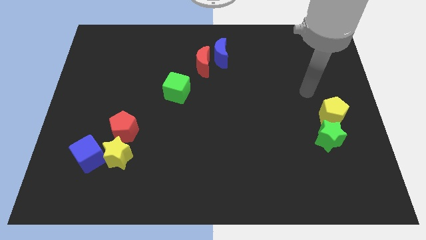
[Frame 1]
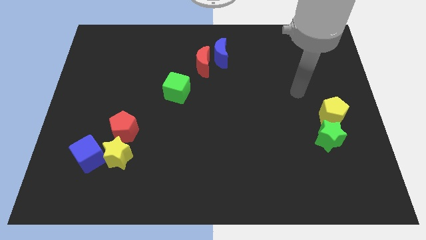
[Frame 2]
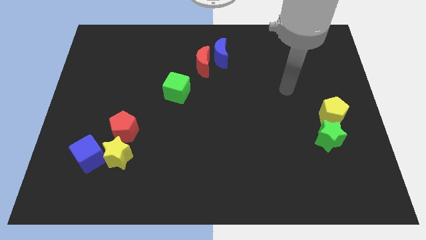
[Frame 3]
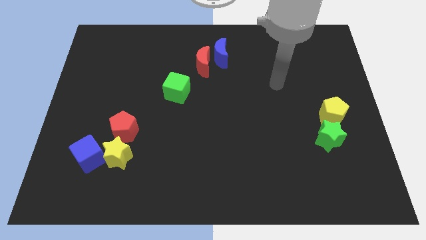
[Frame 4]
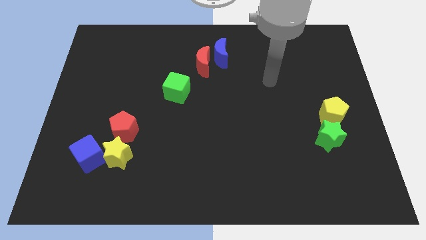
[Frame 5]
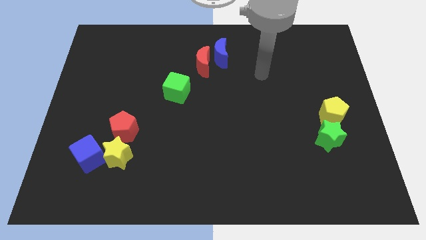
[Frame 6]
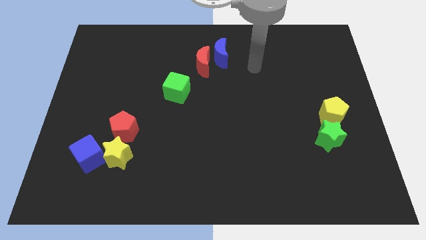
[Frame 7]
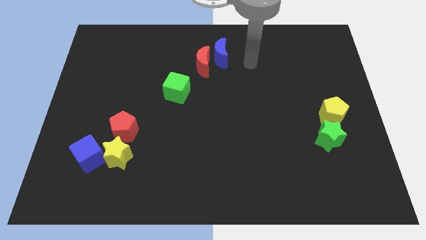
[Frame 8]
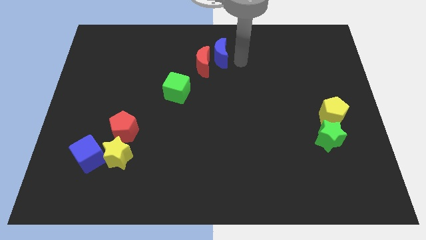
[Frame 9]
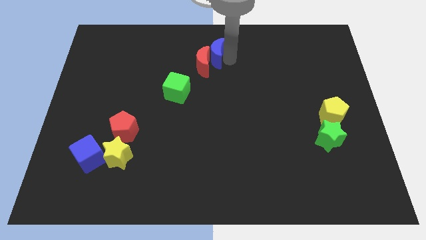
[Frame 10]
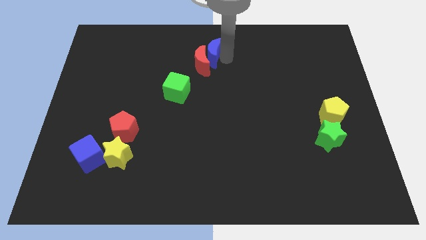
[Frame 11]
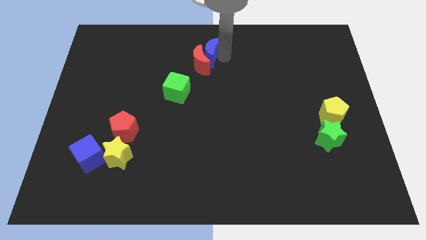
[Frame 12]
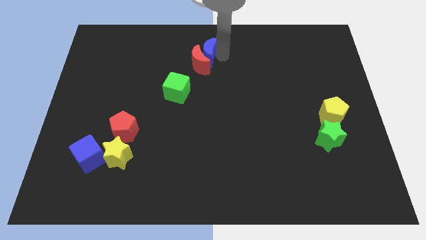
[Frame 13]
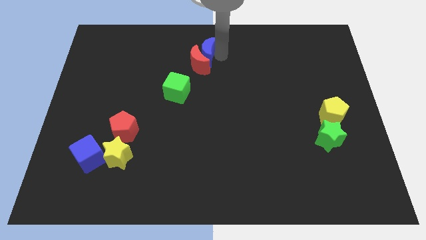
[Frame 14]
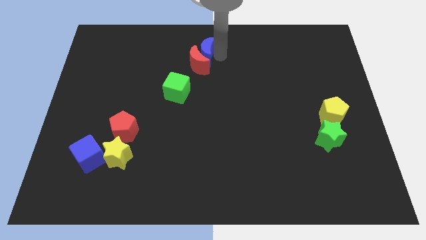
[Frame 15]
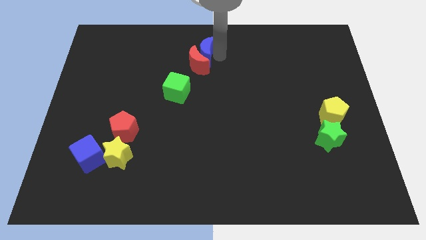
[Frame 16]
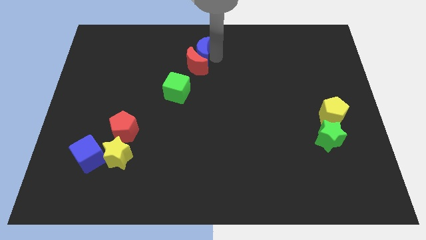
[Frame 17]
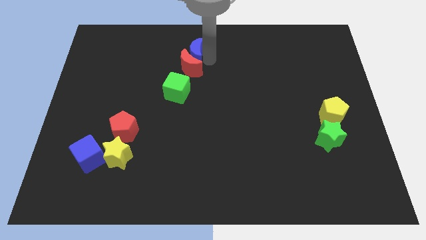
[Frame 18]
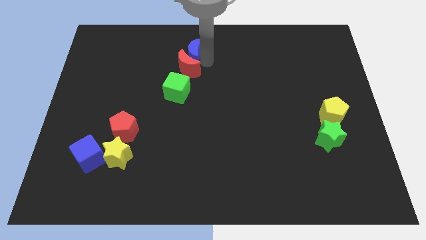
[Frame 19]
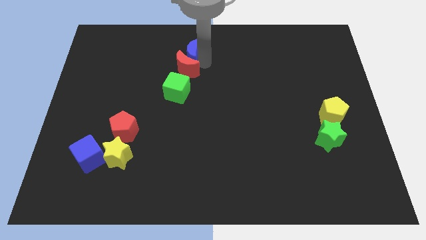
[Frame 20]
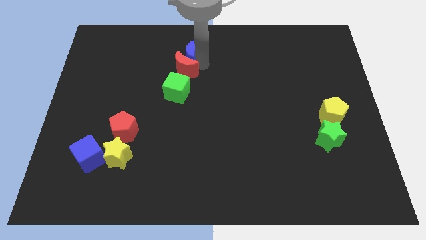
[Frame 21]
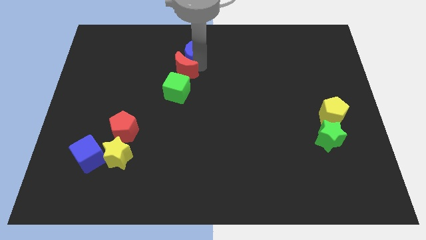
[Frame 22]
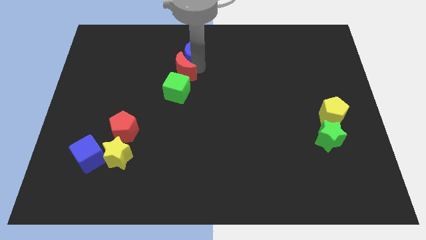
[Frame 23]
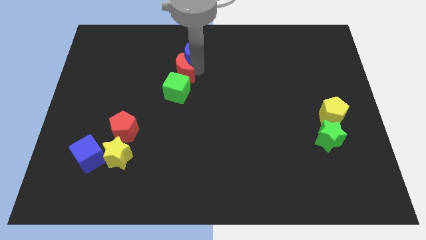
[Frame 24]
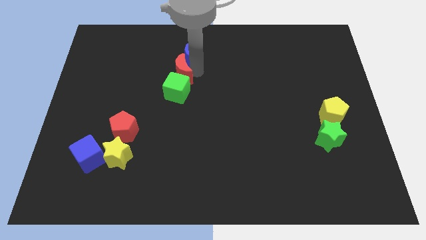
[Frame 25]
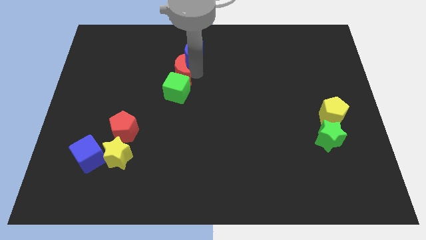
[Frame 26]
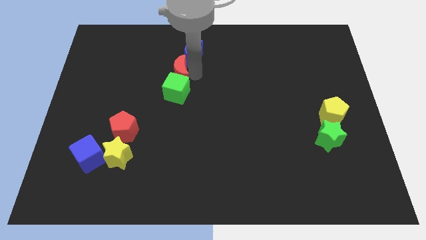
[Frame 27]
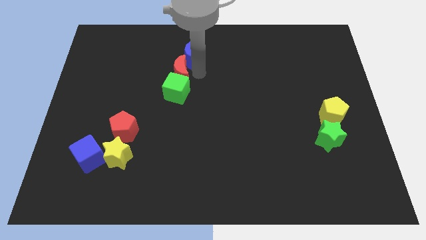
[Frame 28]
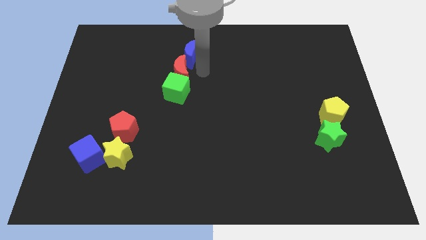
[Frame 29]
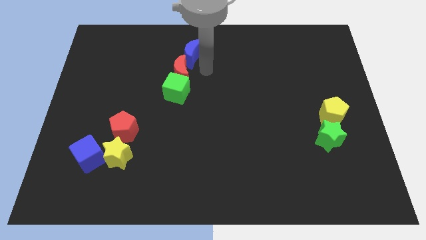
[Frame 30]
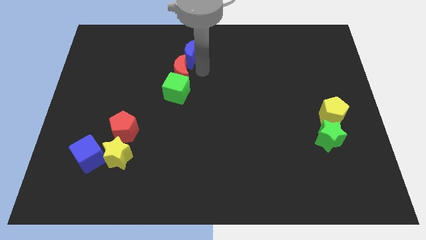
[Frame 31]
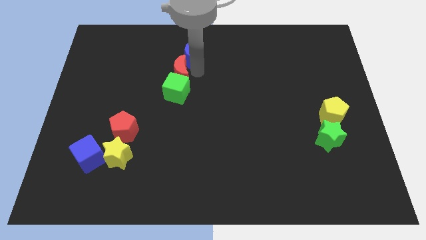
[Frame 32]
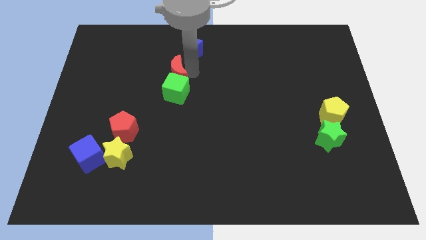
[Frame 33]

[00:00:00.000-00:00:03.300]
slightly slide the red moon downwards and left

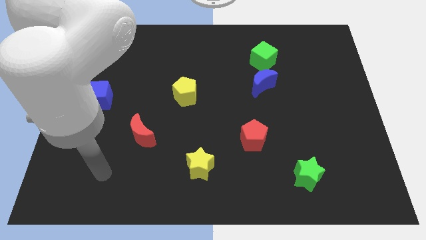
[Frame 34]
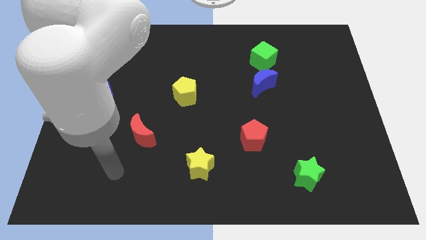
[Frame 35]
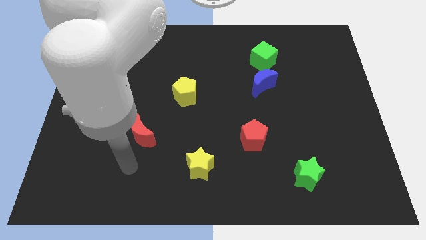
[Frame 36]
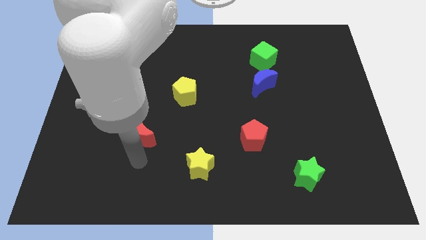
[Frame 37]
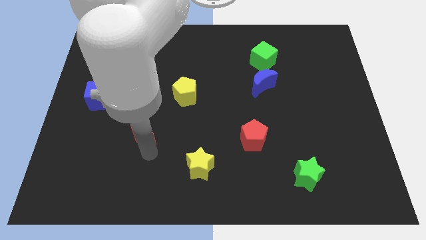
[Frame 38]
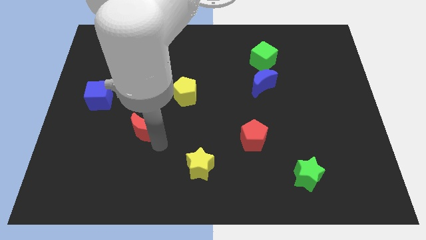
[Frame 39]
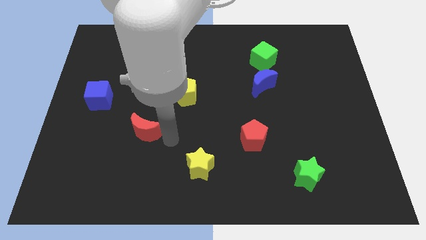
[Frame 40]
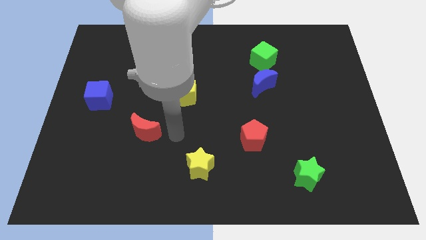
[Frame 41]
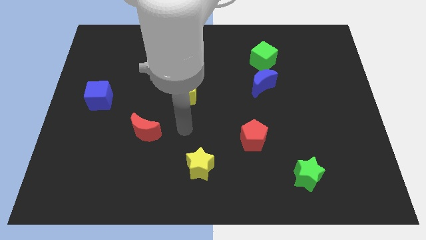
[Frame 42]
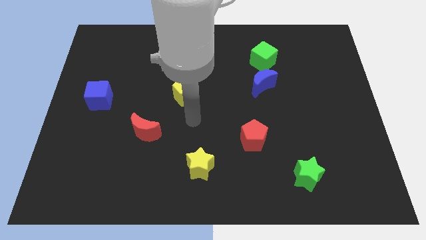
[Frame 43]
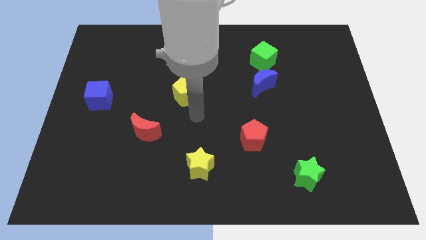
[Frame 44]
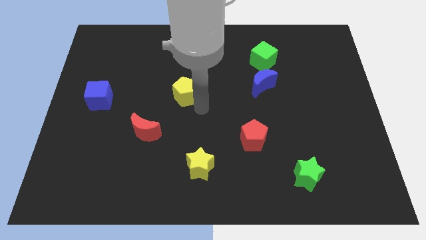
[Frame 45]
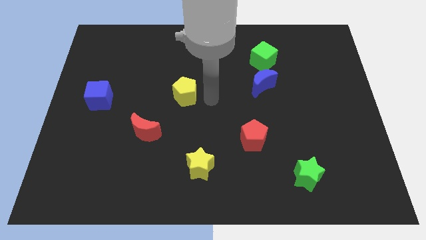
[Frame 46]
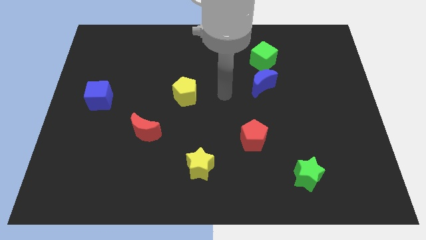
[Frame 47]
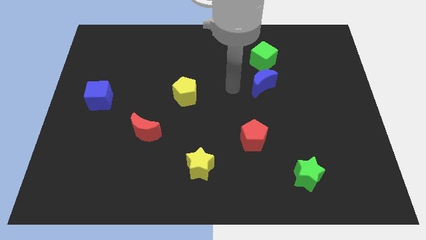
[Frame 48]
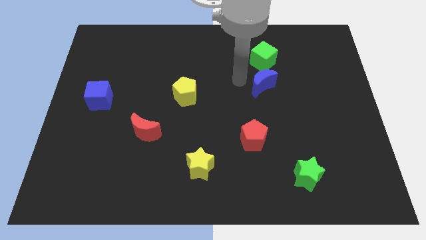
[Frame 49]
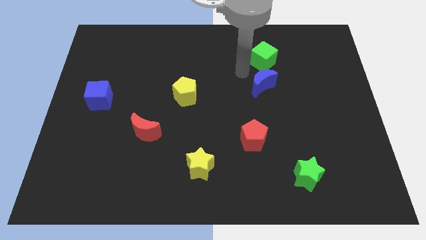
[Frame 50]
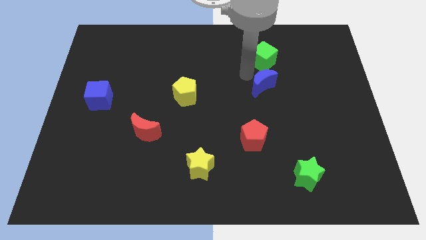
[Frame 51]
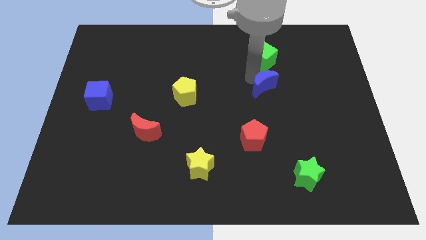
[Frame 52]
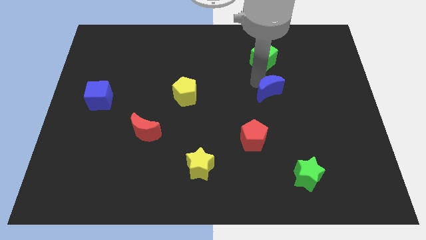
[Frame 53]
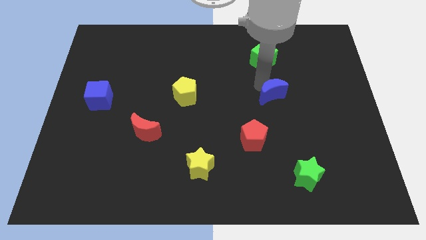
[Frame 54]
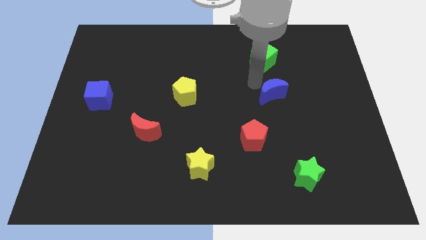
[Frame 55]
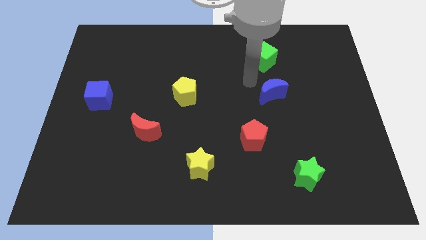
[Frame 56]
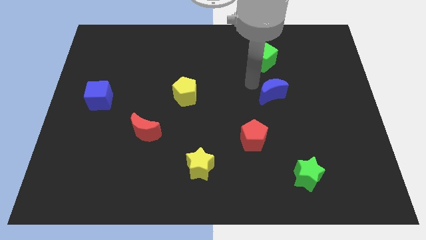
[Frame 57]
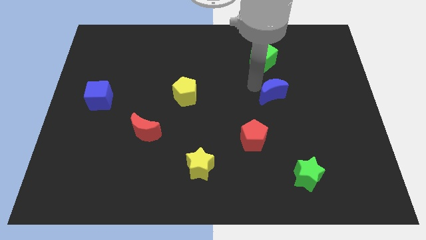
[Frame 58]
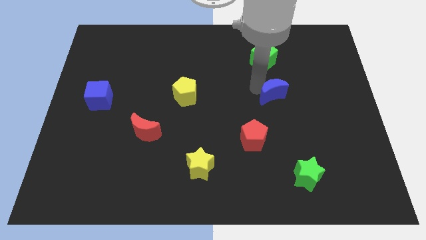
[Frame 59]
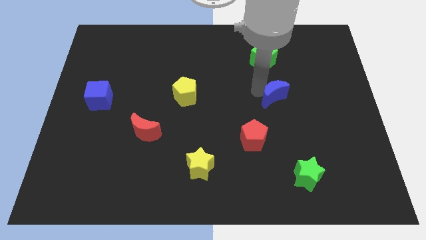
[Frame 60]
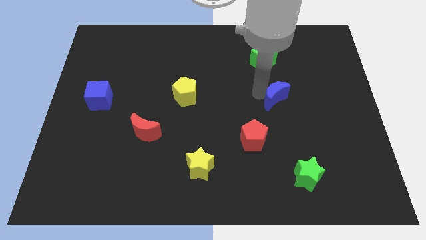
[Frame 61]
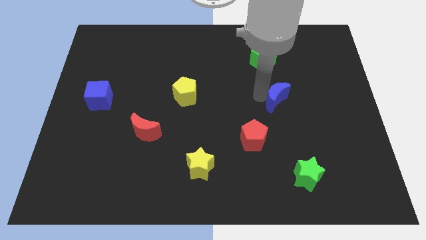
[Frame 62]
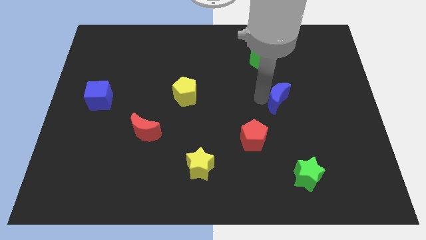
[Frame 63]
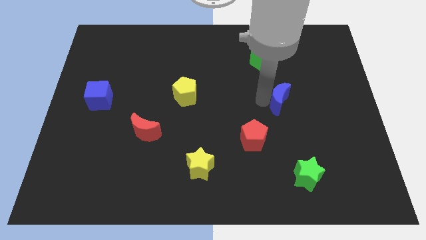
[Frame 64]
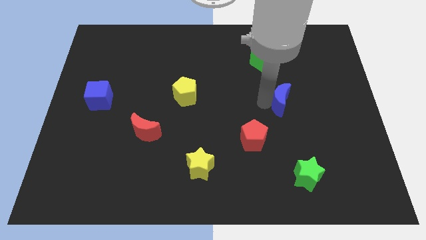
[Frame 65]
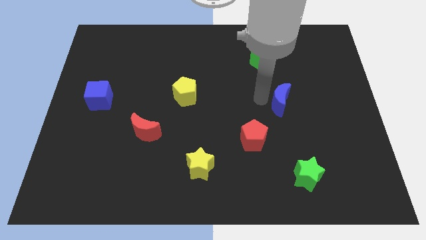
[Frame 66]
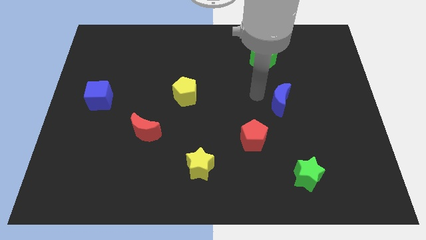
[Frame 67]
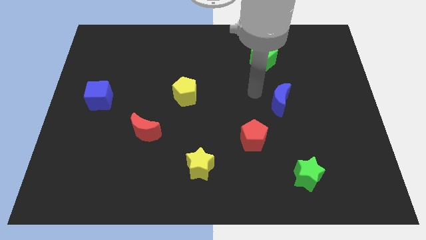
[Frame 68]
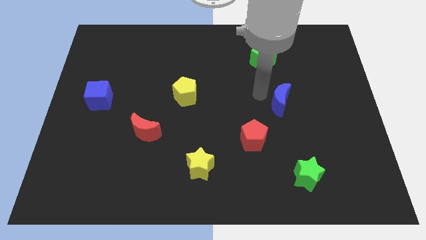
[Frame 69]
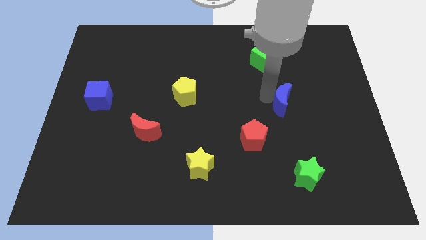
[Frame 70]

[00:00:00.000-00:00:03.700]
push the blue moon a bit downwards and then right

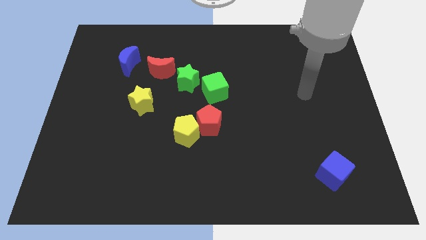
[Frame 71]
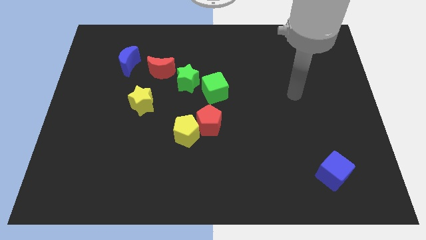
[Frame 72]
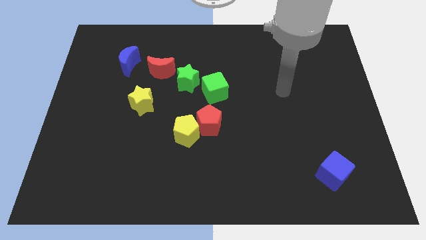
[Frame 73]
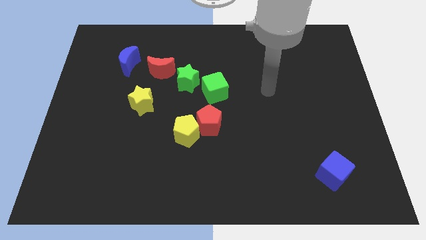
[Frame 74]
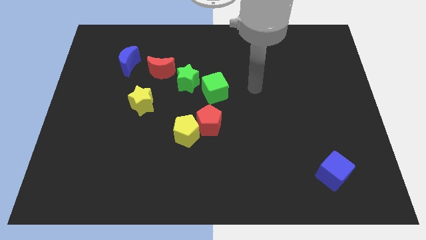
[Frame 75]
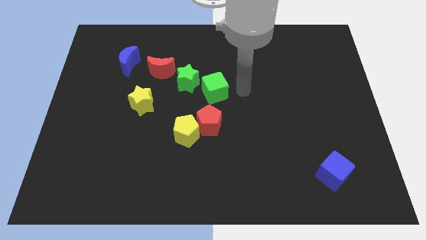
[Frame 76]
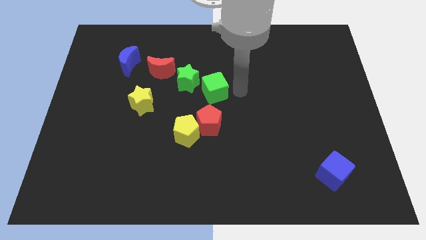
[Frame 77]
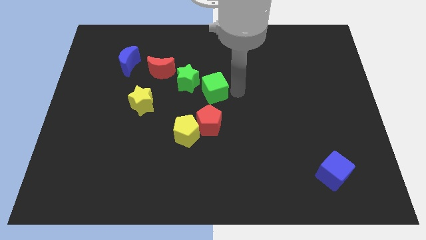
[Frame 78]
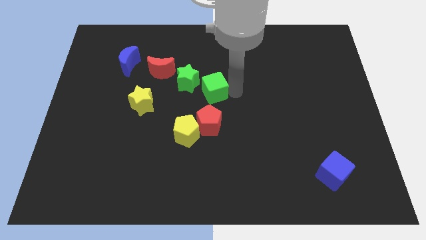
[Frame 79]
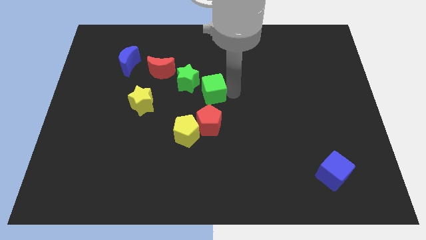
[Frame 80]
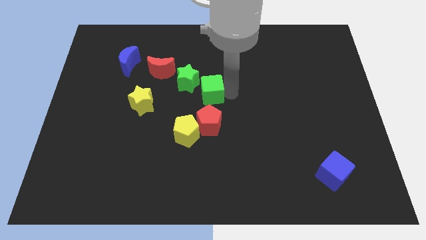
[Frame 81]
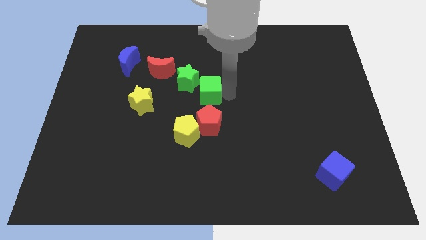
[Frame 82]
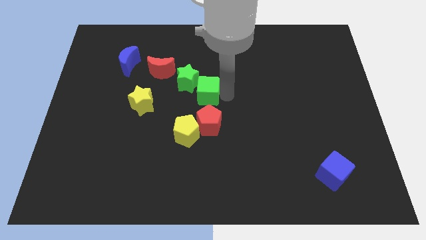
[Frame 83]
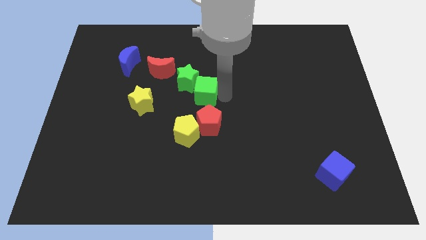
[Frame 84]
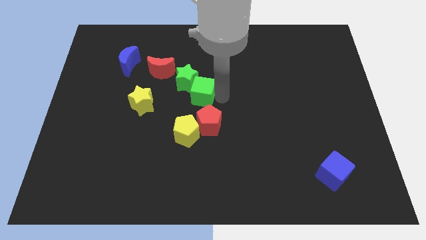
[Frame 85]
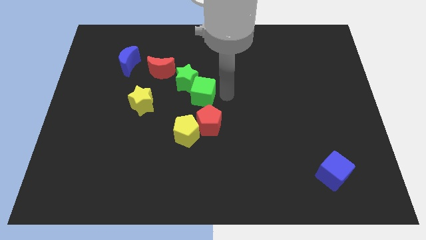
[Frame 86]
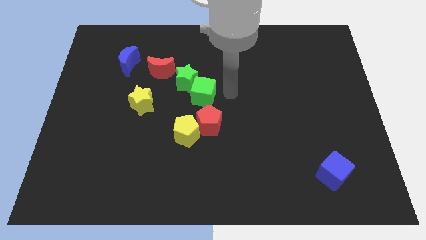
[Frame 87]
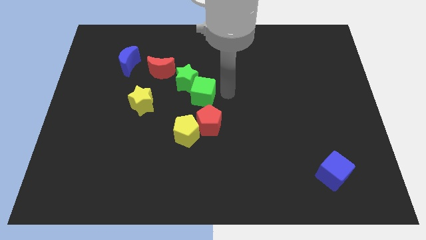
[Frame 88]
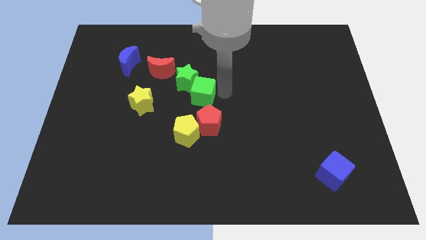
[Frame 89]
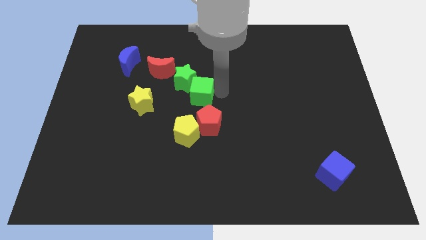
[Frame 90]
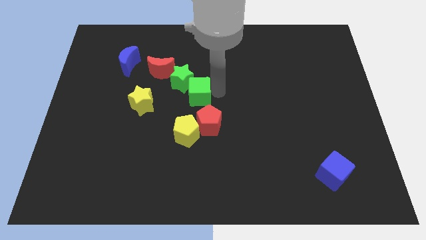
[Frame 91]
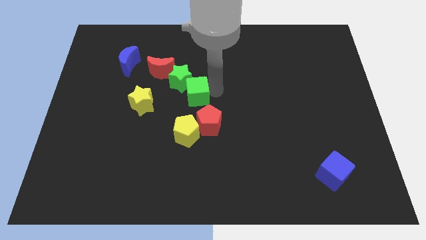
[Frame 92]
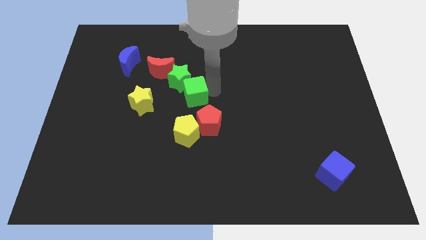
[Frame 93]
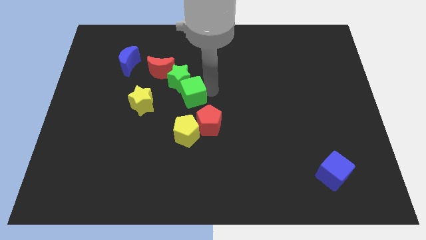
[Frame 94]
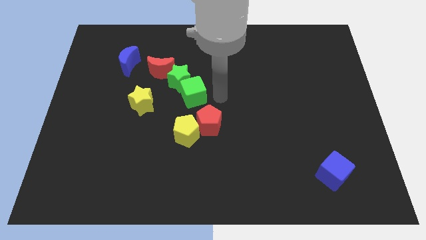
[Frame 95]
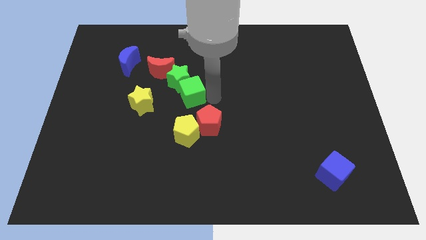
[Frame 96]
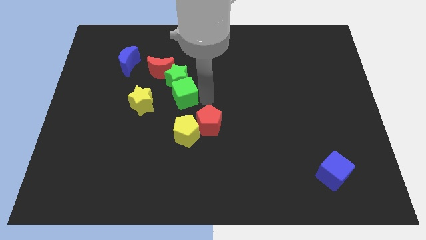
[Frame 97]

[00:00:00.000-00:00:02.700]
slide the green cube to the left slightly
